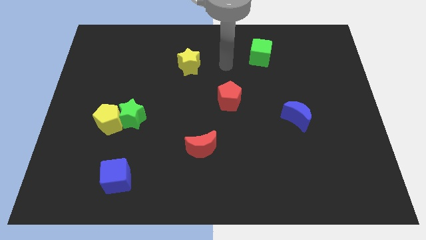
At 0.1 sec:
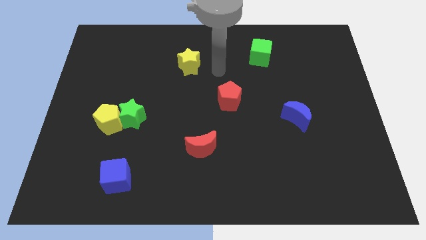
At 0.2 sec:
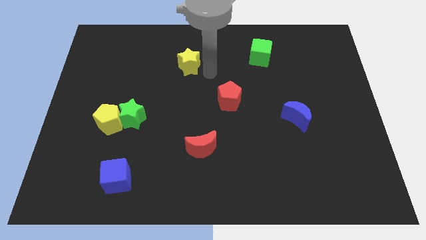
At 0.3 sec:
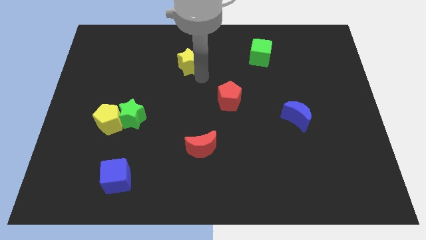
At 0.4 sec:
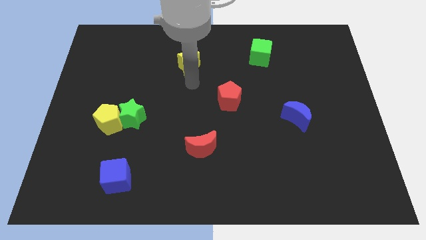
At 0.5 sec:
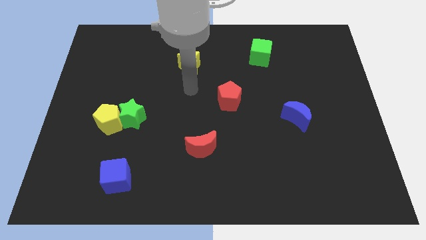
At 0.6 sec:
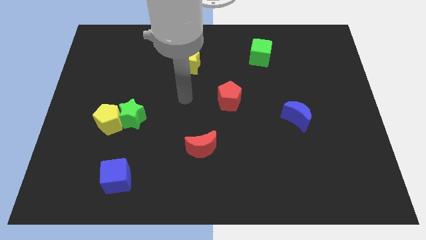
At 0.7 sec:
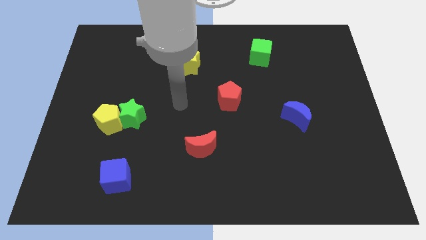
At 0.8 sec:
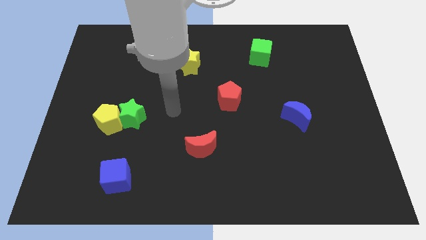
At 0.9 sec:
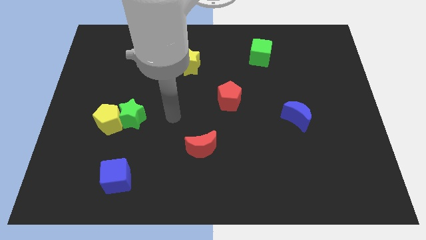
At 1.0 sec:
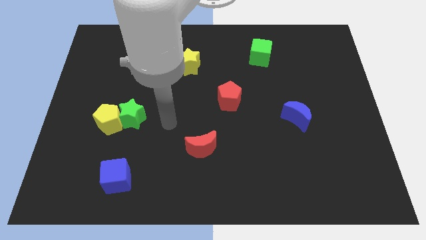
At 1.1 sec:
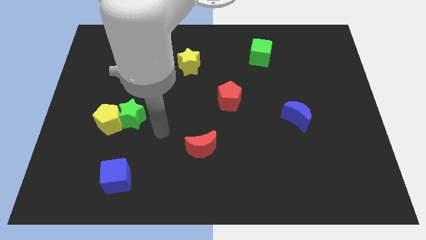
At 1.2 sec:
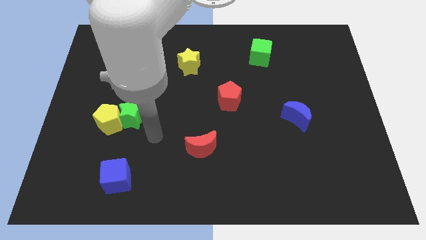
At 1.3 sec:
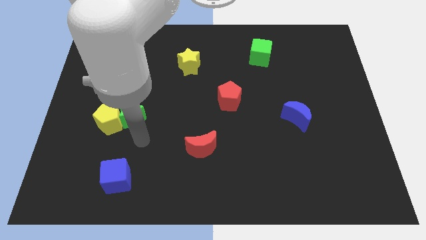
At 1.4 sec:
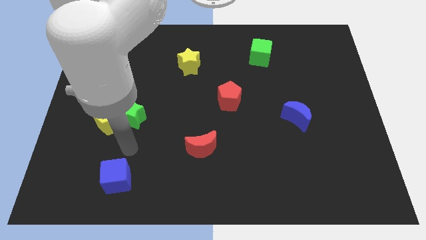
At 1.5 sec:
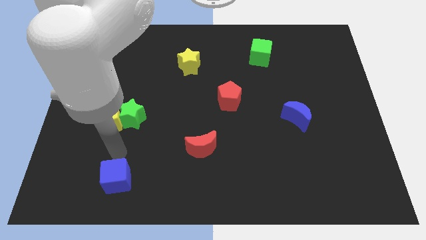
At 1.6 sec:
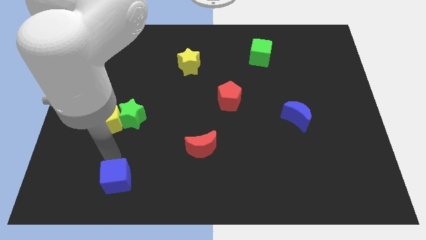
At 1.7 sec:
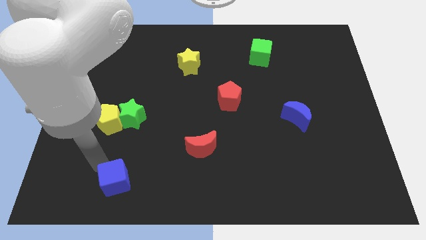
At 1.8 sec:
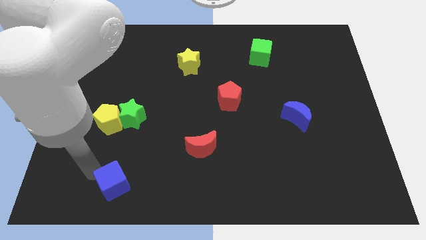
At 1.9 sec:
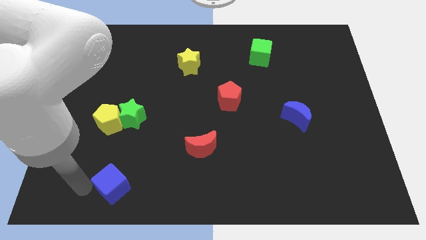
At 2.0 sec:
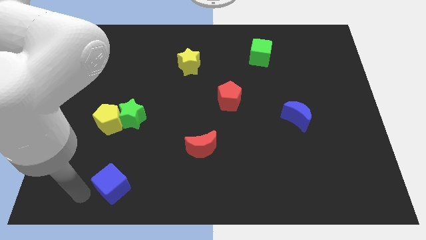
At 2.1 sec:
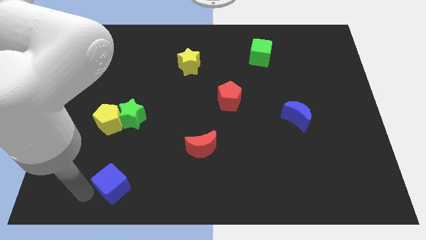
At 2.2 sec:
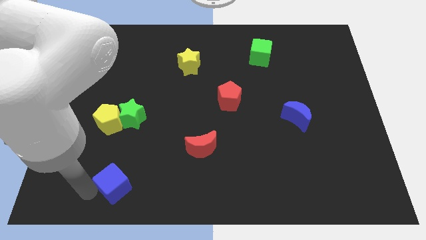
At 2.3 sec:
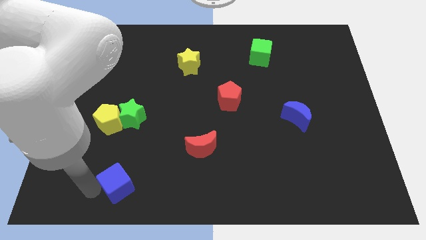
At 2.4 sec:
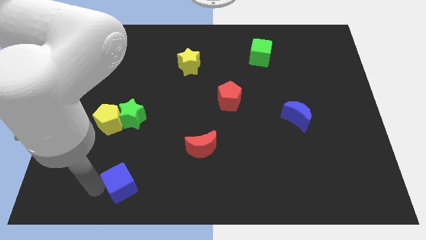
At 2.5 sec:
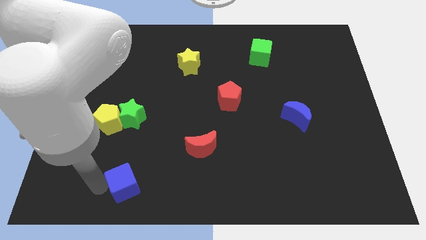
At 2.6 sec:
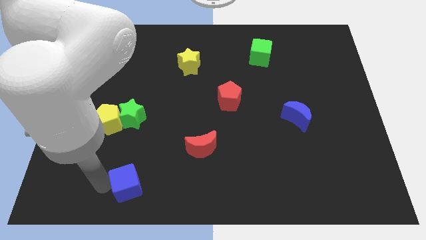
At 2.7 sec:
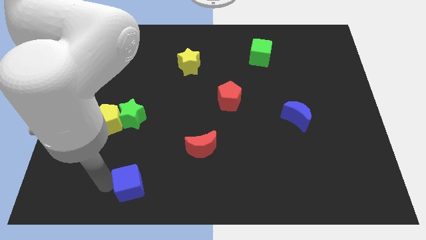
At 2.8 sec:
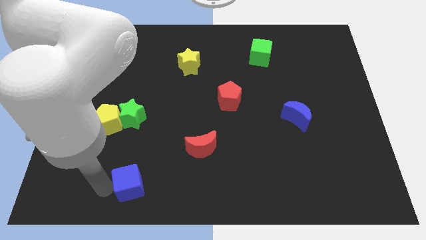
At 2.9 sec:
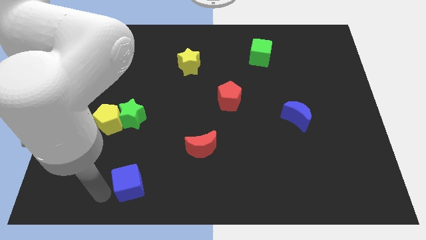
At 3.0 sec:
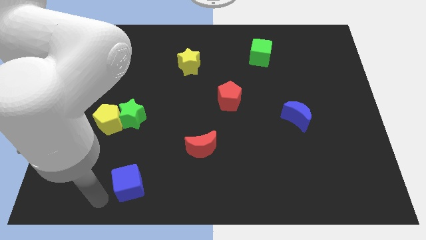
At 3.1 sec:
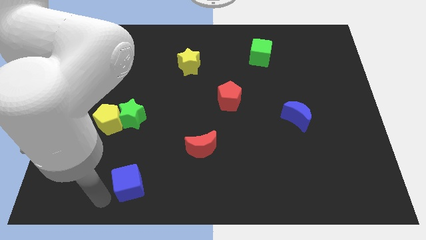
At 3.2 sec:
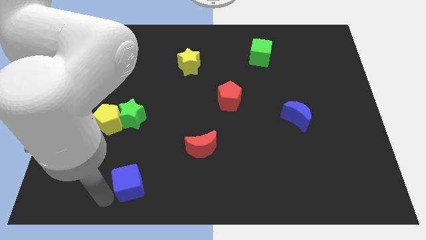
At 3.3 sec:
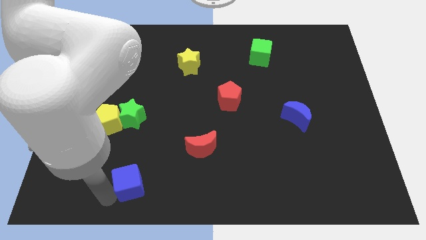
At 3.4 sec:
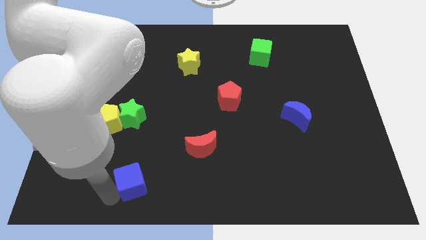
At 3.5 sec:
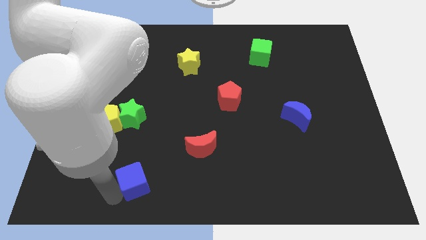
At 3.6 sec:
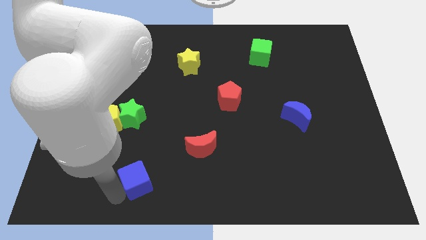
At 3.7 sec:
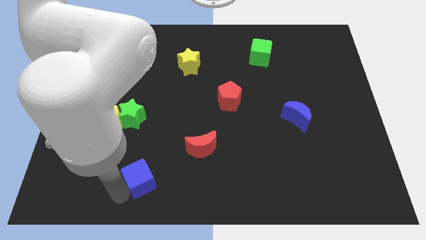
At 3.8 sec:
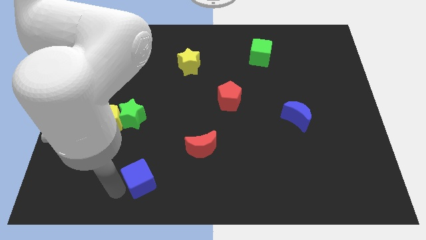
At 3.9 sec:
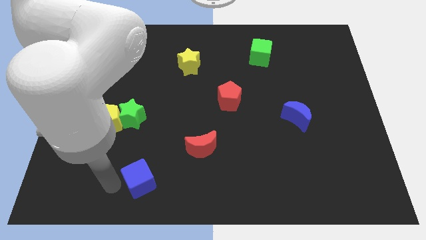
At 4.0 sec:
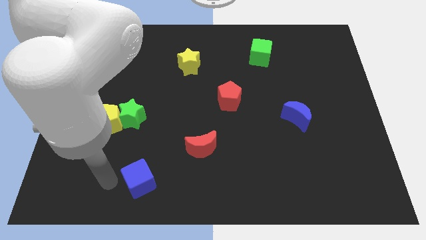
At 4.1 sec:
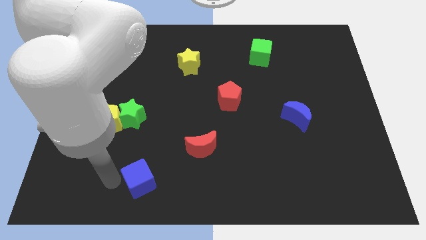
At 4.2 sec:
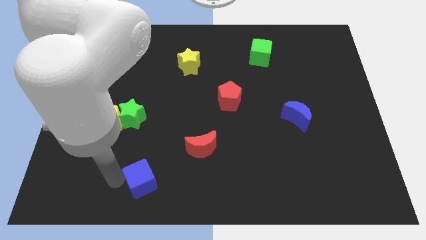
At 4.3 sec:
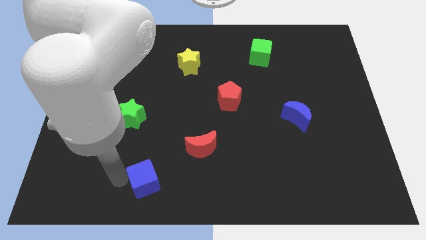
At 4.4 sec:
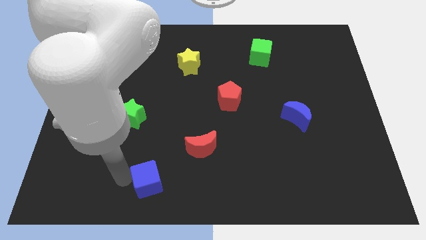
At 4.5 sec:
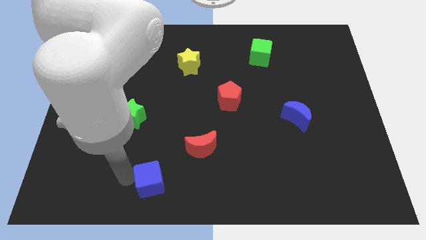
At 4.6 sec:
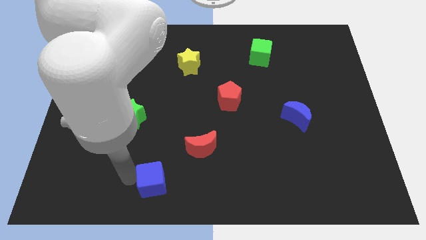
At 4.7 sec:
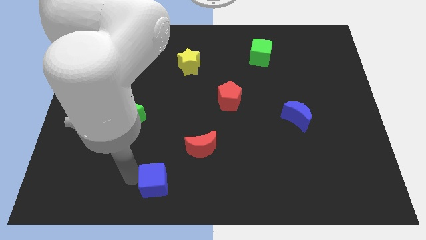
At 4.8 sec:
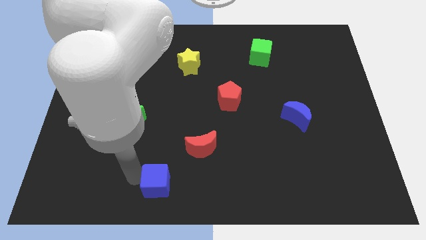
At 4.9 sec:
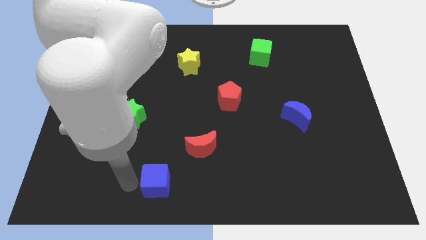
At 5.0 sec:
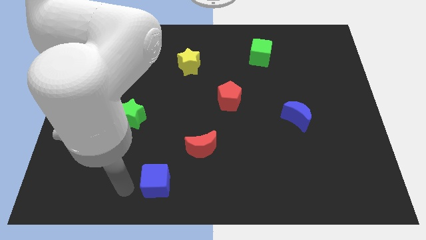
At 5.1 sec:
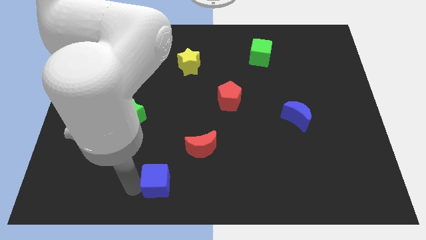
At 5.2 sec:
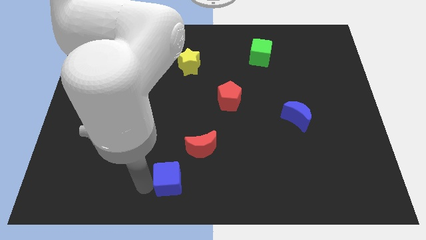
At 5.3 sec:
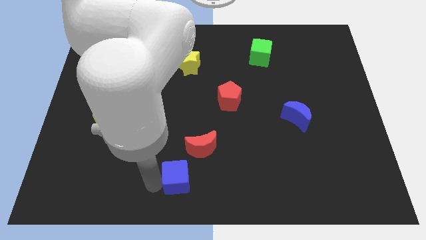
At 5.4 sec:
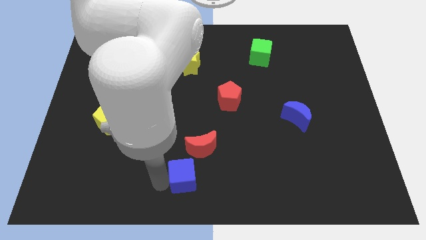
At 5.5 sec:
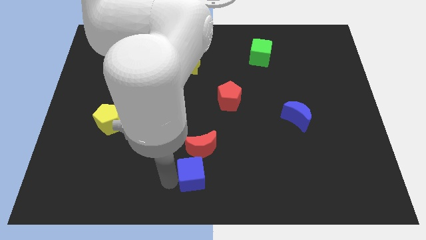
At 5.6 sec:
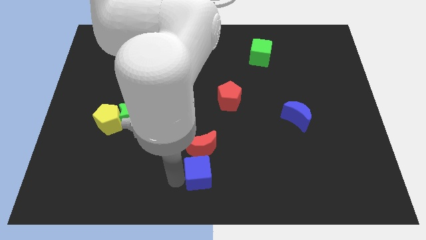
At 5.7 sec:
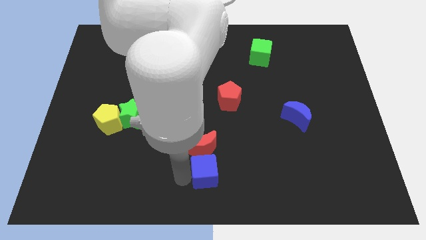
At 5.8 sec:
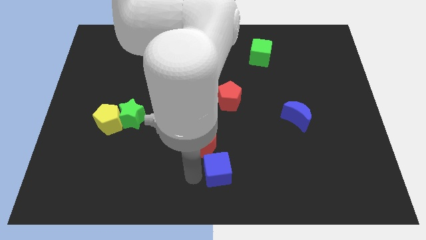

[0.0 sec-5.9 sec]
move the blue cube right

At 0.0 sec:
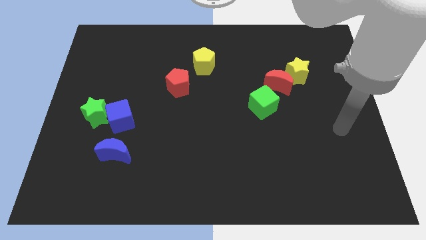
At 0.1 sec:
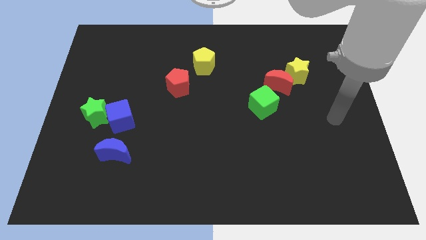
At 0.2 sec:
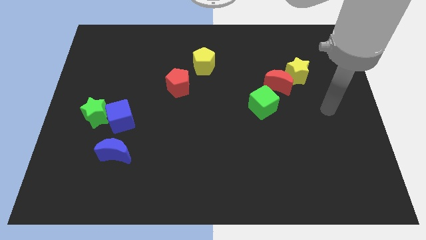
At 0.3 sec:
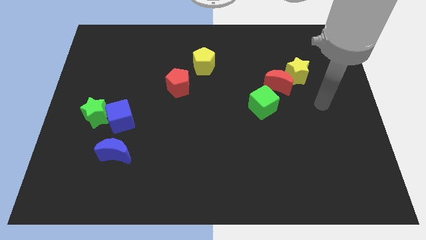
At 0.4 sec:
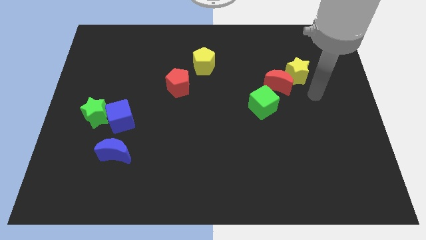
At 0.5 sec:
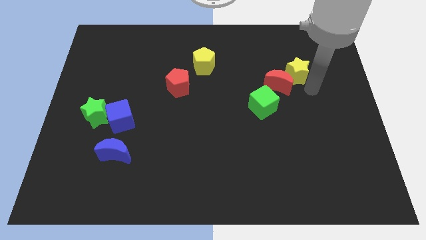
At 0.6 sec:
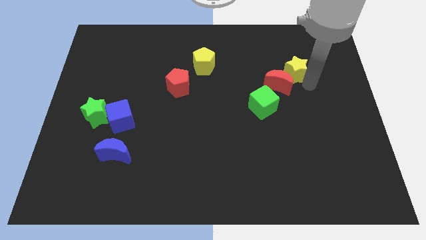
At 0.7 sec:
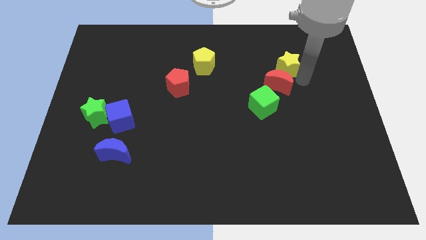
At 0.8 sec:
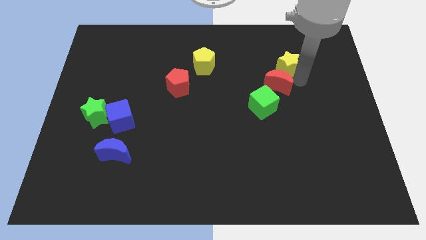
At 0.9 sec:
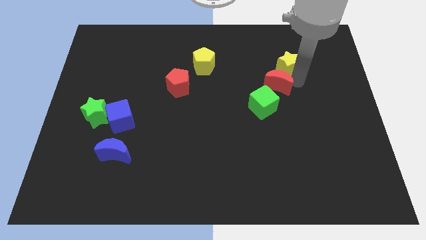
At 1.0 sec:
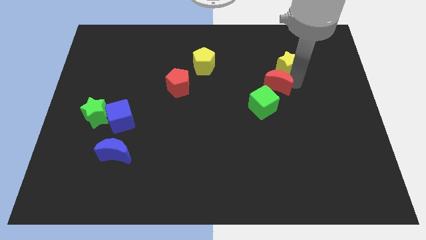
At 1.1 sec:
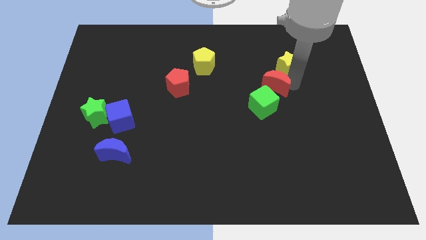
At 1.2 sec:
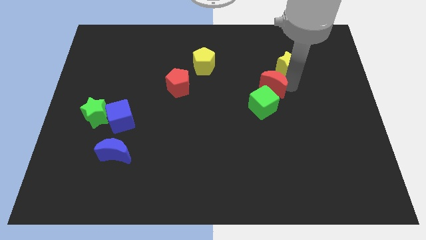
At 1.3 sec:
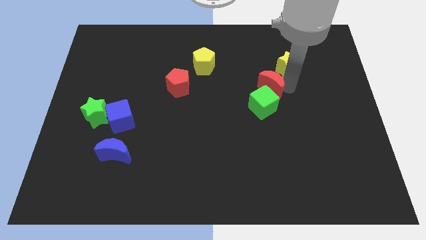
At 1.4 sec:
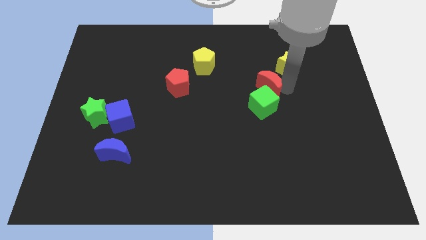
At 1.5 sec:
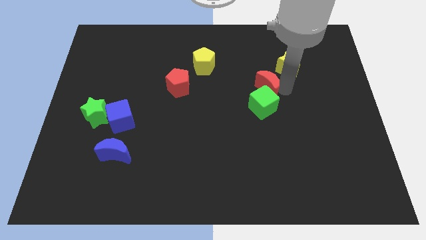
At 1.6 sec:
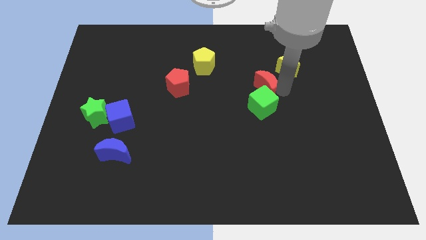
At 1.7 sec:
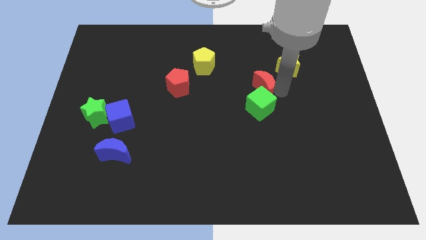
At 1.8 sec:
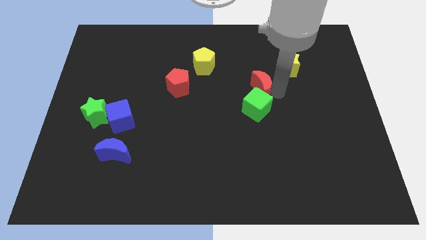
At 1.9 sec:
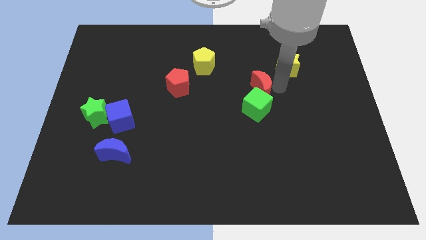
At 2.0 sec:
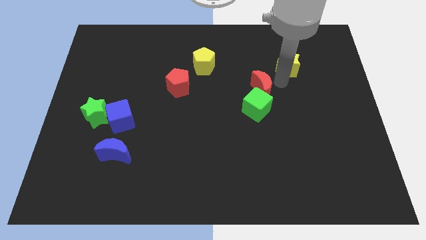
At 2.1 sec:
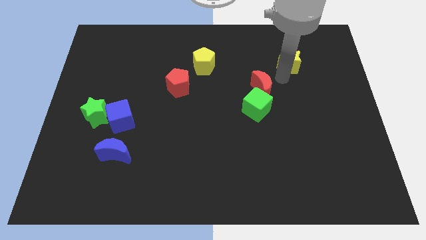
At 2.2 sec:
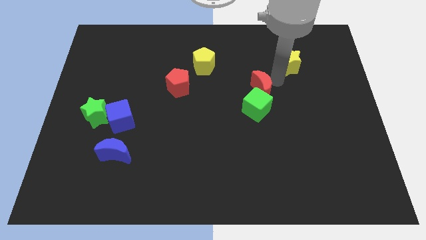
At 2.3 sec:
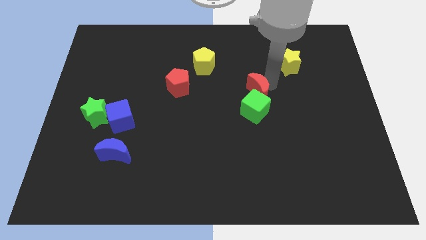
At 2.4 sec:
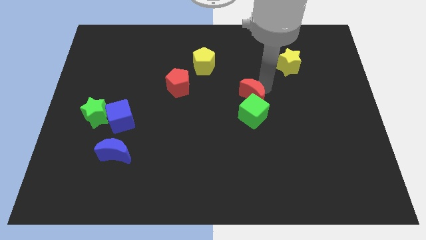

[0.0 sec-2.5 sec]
push the red moon diagonally downwards and left a bit
